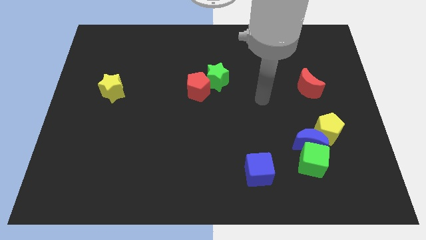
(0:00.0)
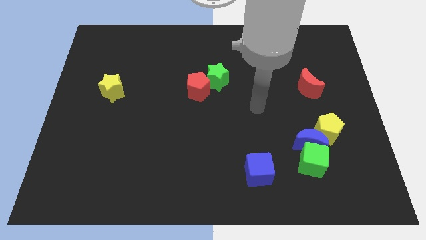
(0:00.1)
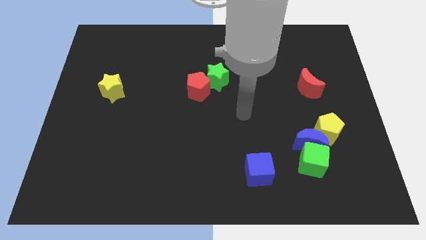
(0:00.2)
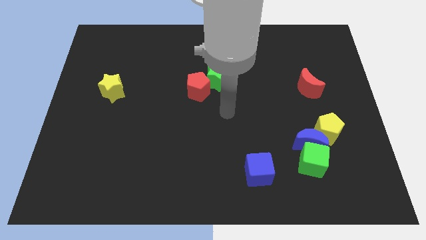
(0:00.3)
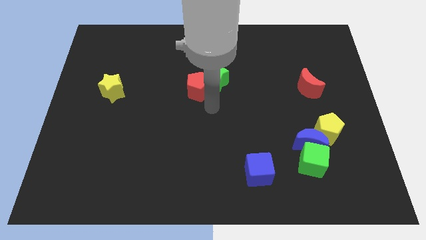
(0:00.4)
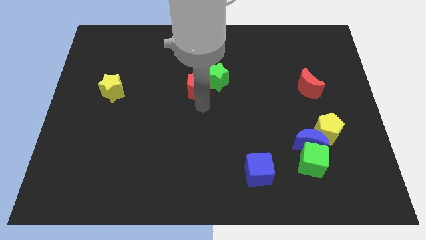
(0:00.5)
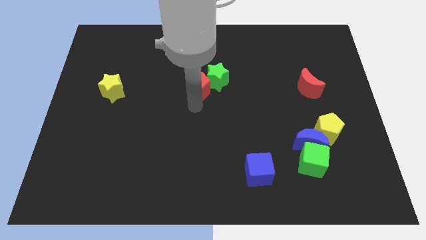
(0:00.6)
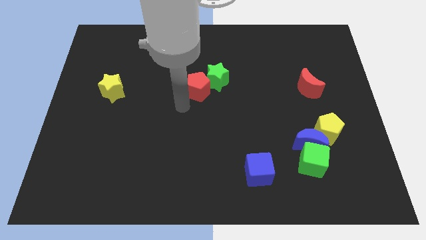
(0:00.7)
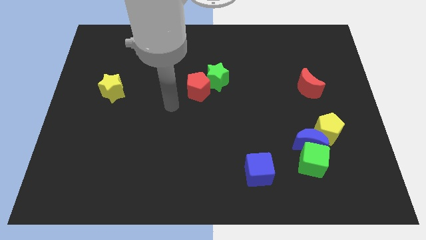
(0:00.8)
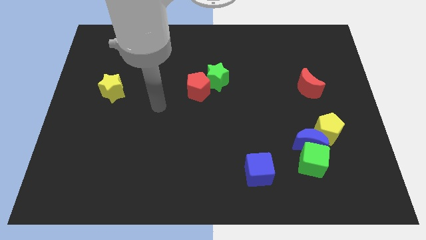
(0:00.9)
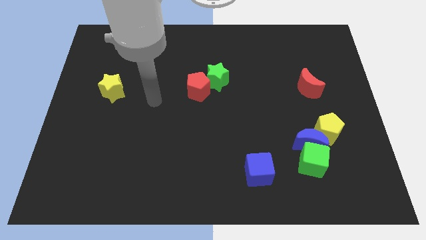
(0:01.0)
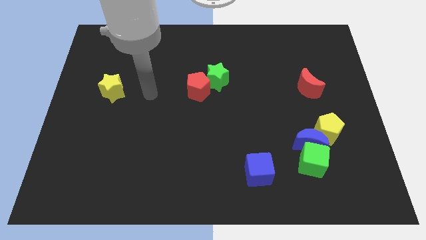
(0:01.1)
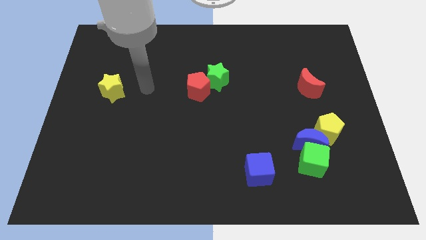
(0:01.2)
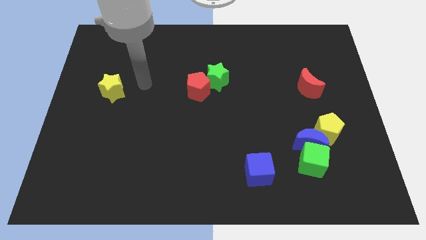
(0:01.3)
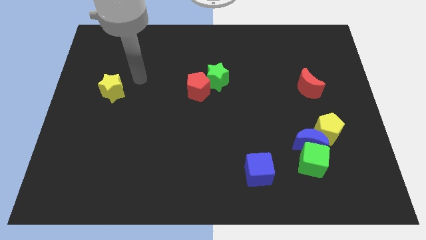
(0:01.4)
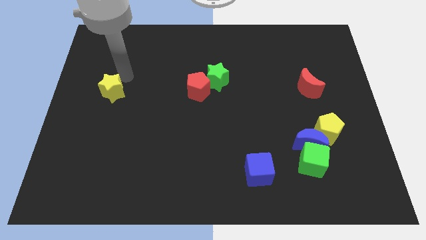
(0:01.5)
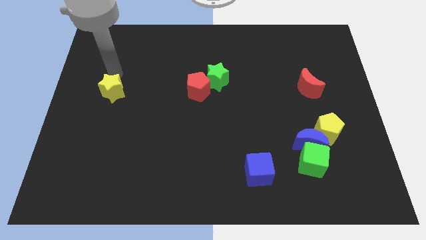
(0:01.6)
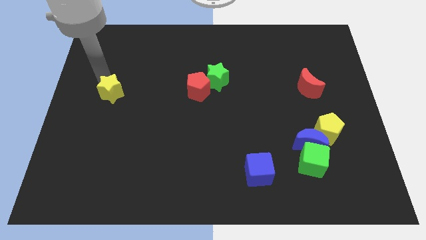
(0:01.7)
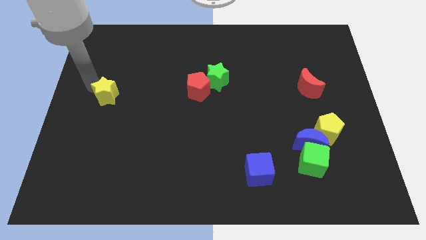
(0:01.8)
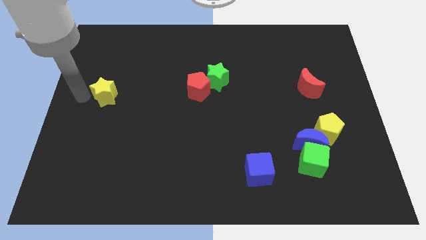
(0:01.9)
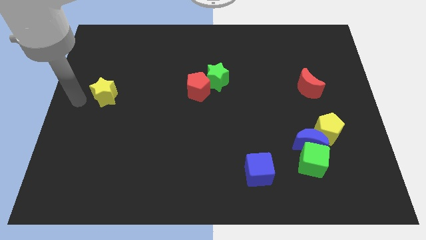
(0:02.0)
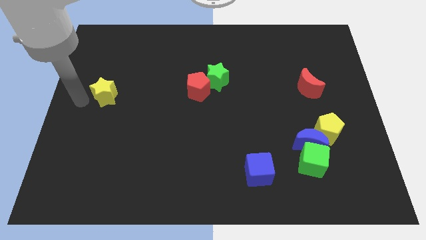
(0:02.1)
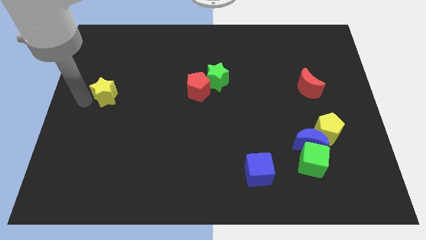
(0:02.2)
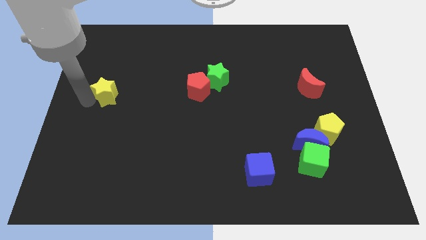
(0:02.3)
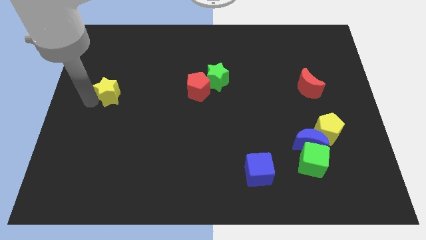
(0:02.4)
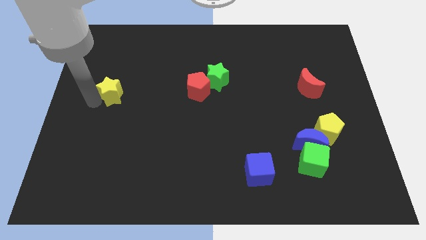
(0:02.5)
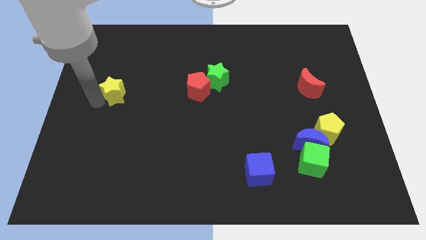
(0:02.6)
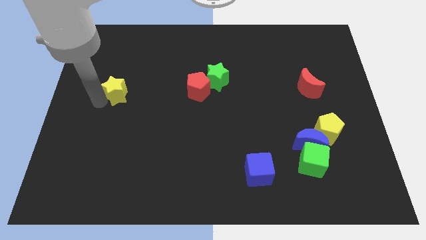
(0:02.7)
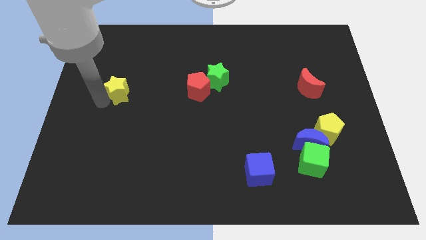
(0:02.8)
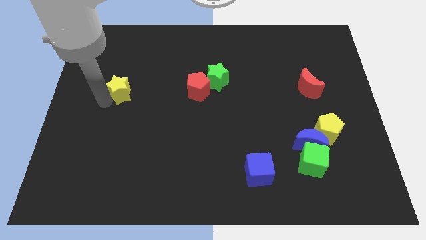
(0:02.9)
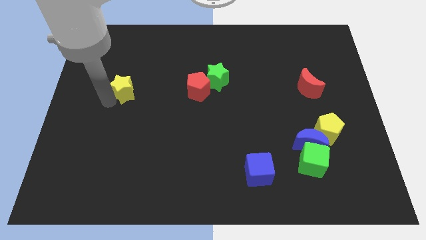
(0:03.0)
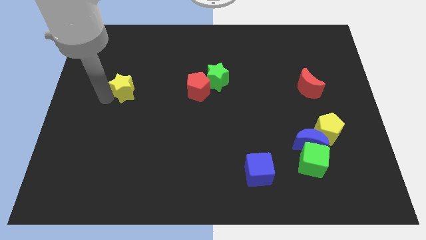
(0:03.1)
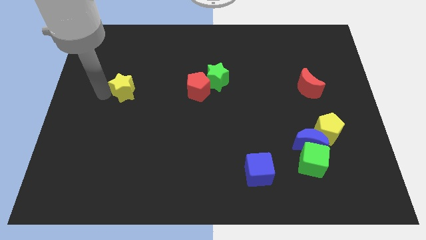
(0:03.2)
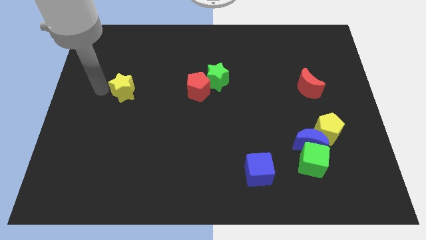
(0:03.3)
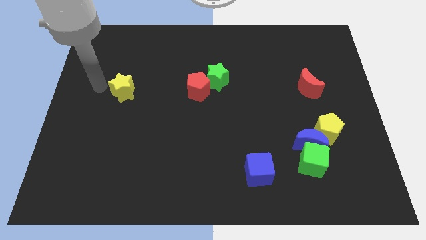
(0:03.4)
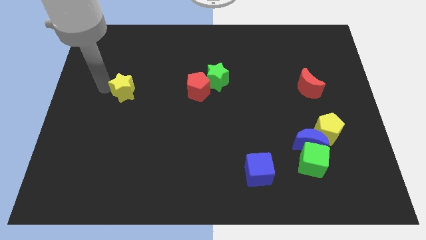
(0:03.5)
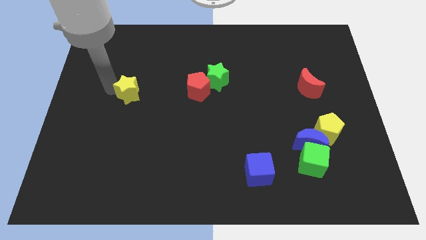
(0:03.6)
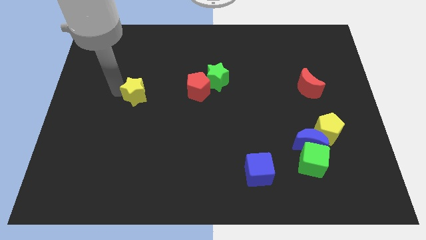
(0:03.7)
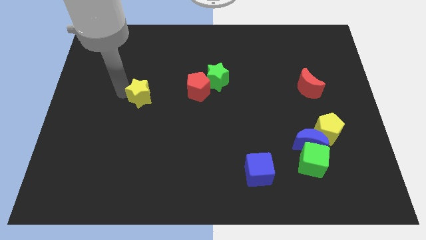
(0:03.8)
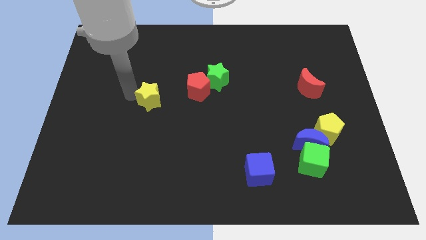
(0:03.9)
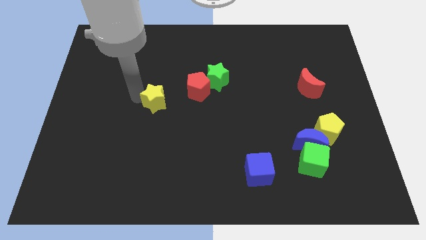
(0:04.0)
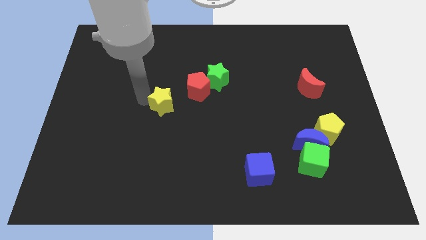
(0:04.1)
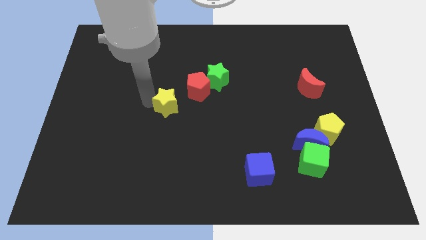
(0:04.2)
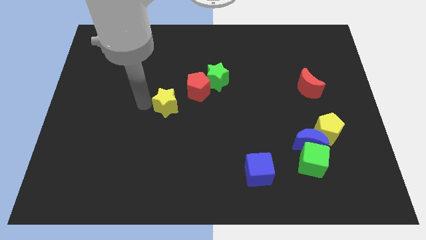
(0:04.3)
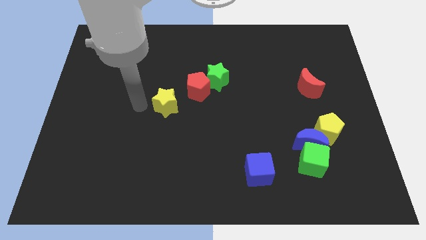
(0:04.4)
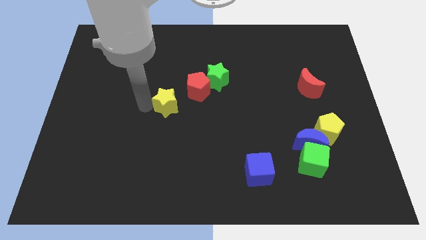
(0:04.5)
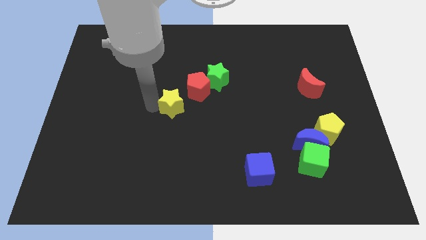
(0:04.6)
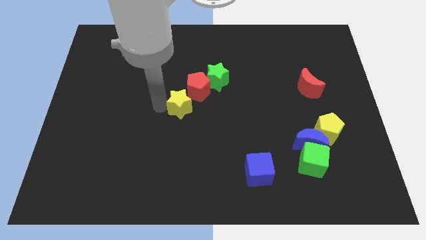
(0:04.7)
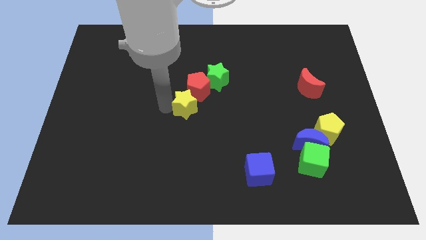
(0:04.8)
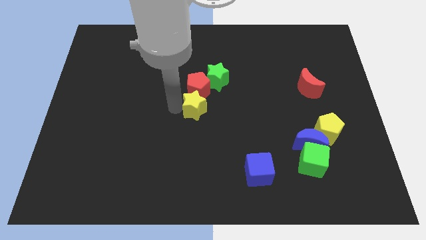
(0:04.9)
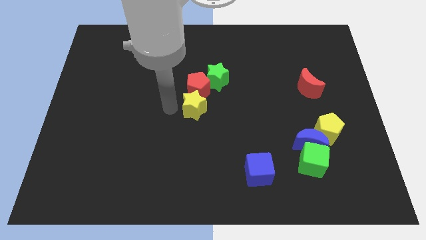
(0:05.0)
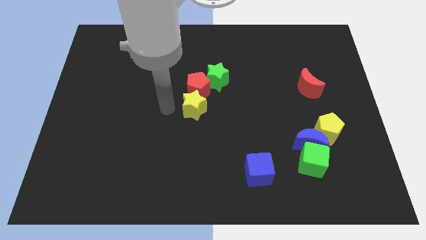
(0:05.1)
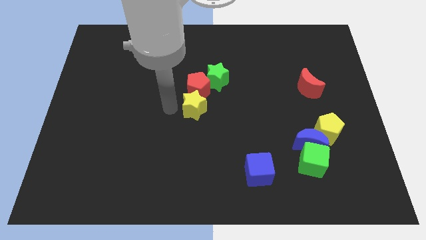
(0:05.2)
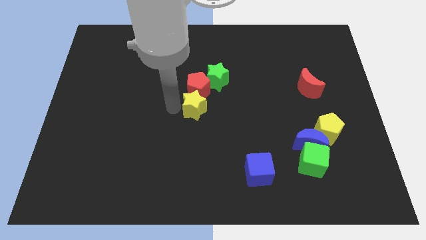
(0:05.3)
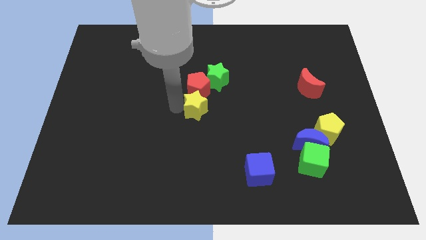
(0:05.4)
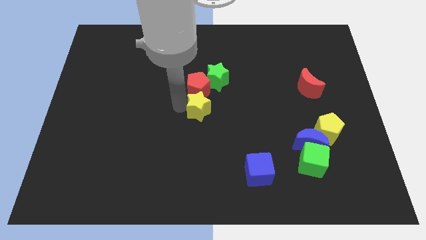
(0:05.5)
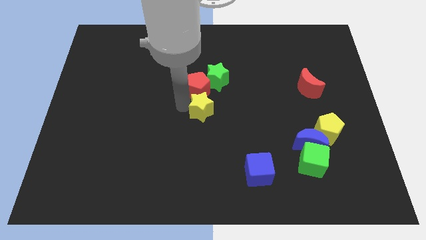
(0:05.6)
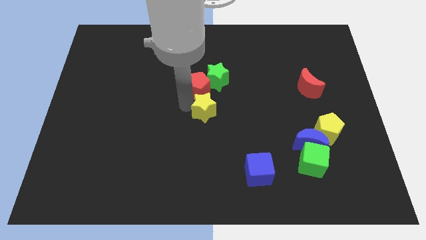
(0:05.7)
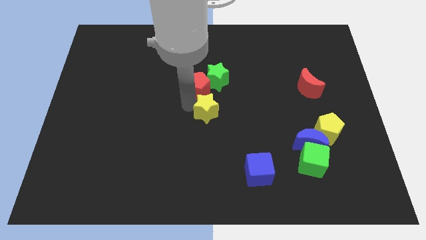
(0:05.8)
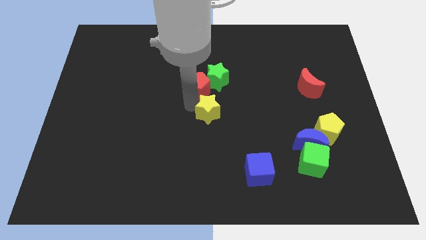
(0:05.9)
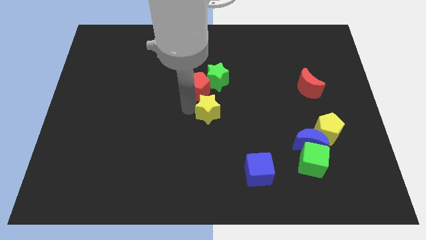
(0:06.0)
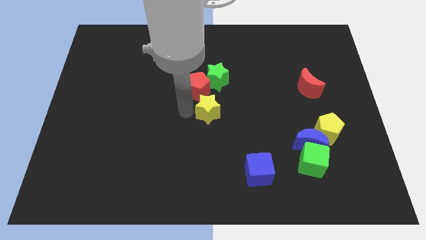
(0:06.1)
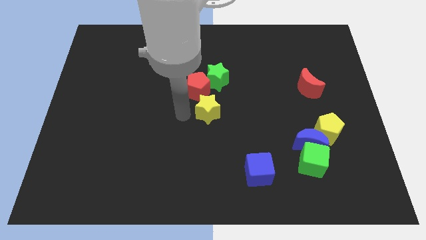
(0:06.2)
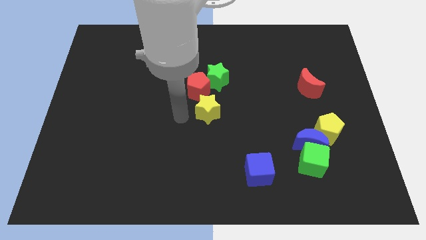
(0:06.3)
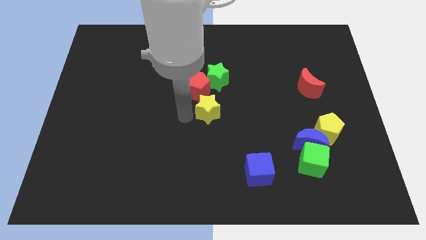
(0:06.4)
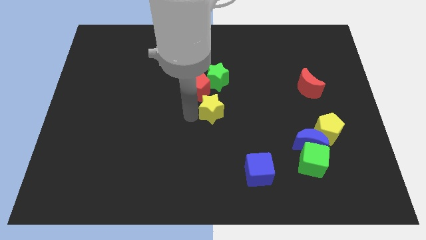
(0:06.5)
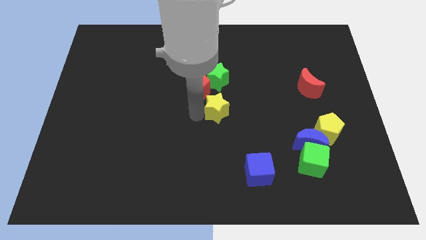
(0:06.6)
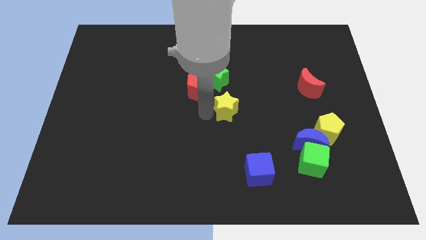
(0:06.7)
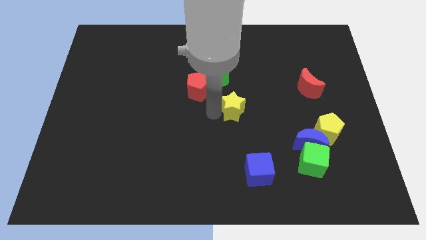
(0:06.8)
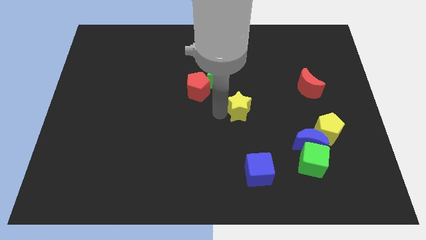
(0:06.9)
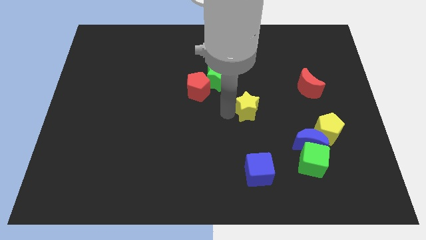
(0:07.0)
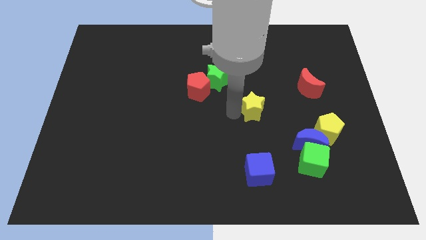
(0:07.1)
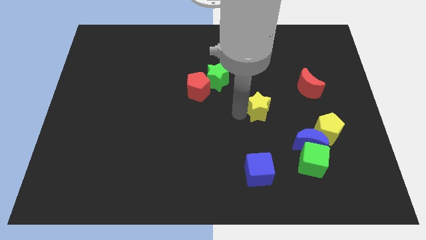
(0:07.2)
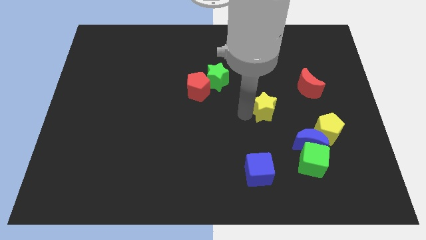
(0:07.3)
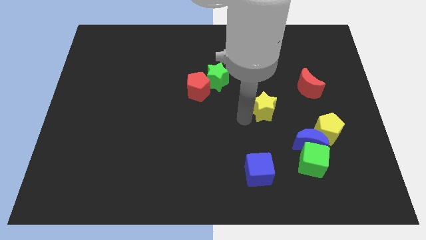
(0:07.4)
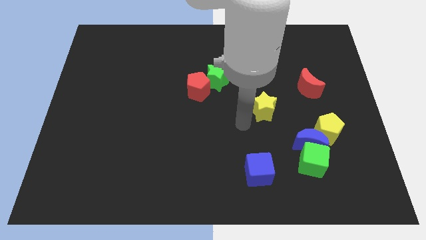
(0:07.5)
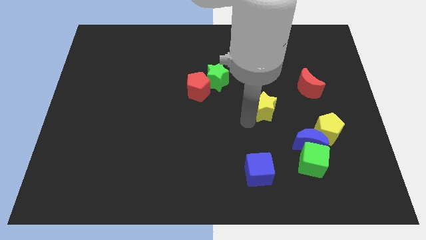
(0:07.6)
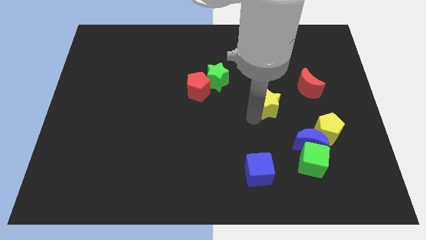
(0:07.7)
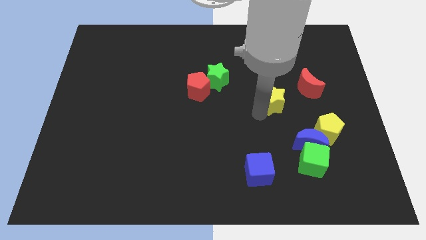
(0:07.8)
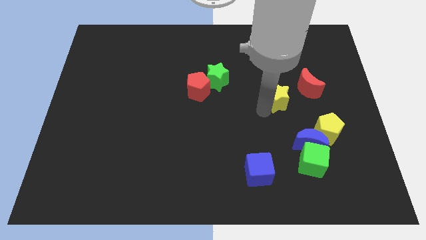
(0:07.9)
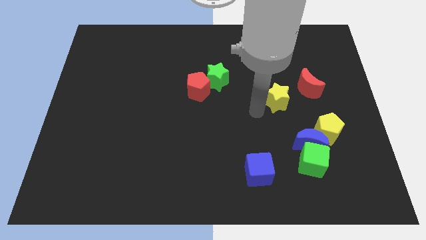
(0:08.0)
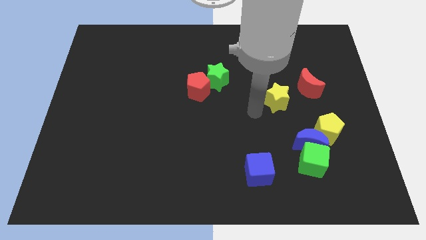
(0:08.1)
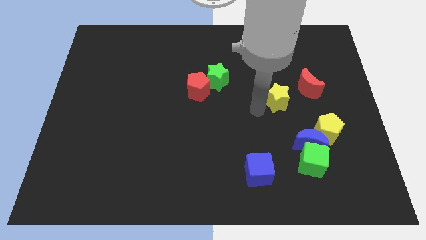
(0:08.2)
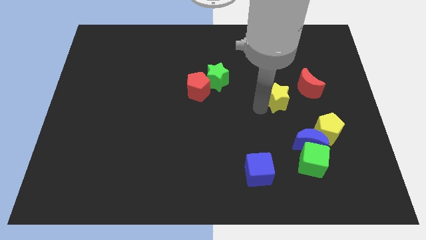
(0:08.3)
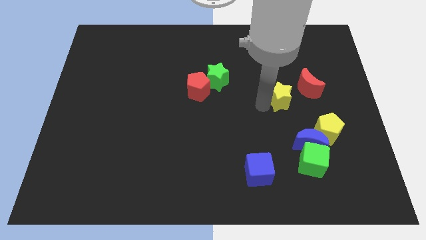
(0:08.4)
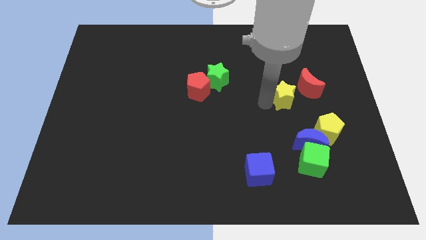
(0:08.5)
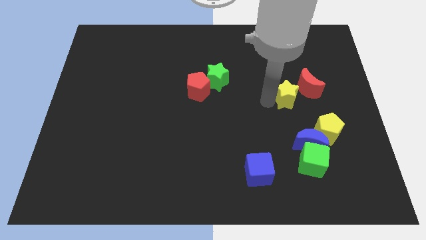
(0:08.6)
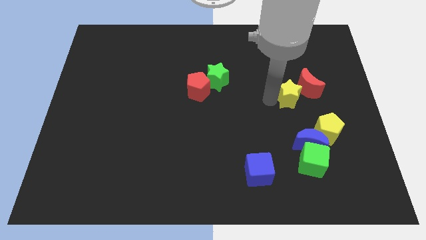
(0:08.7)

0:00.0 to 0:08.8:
slide the yellow star close to the red moon
